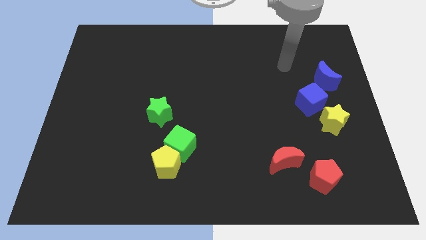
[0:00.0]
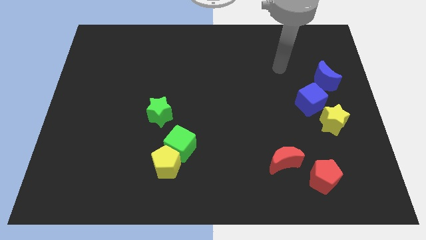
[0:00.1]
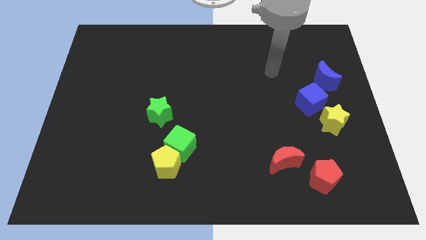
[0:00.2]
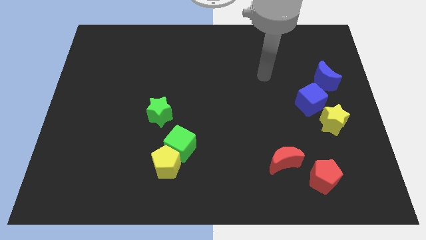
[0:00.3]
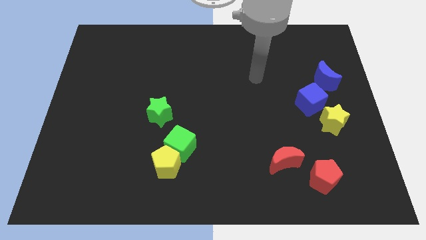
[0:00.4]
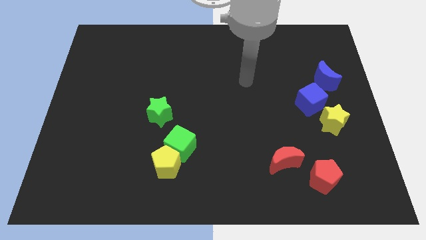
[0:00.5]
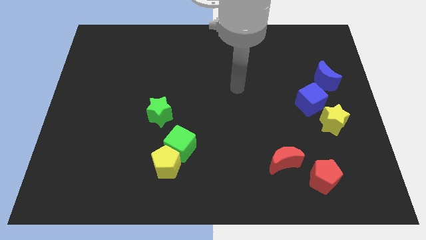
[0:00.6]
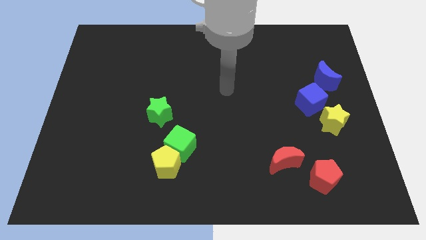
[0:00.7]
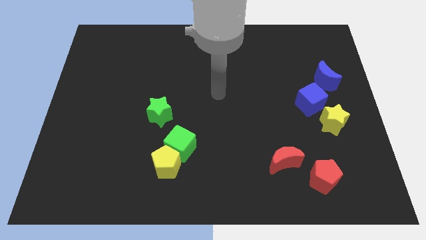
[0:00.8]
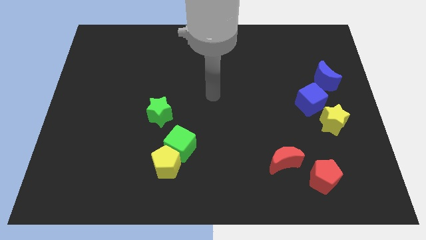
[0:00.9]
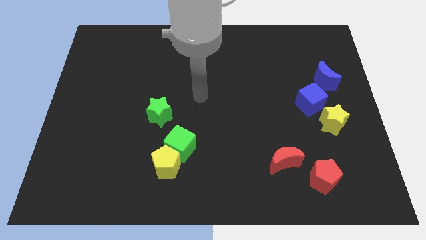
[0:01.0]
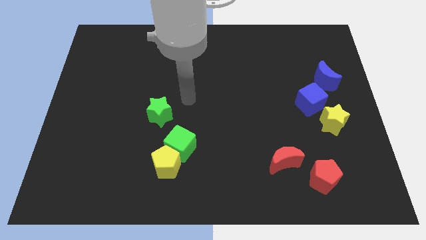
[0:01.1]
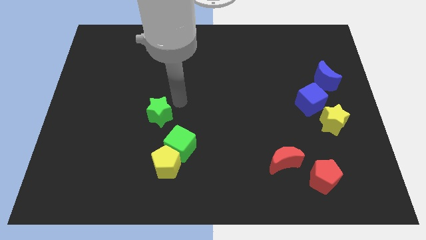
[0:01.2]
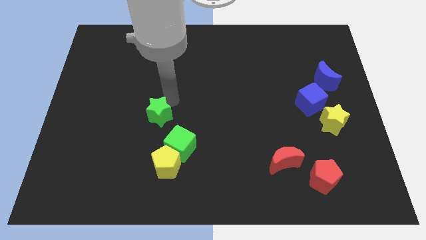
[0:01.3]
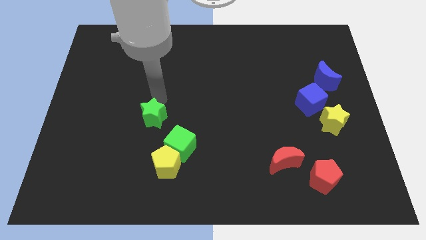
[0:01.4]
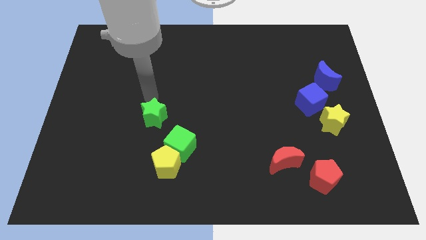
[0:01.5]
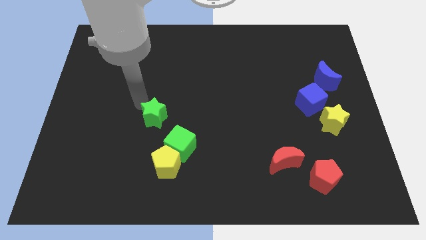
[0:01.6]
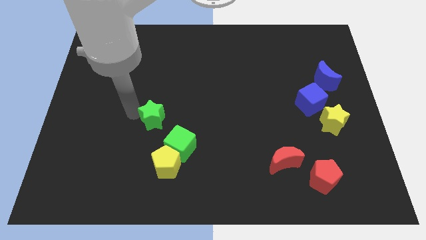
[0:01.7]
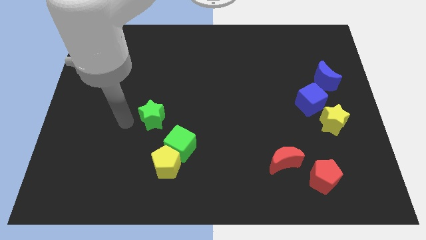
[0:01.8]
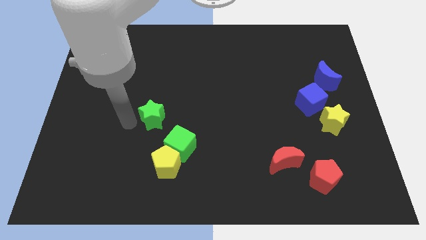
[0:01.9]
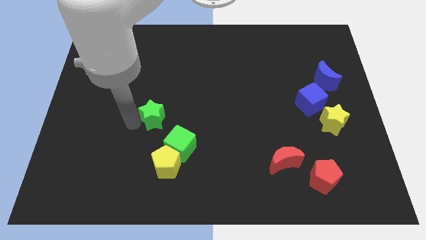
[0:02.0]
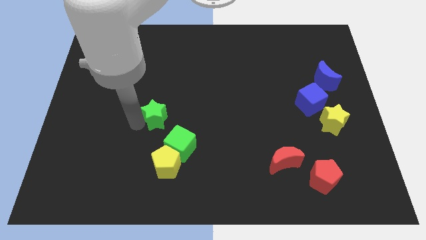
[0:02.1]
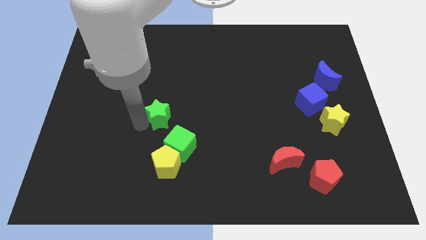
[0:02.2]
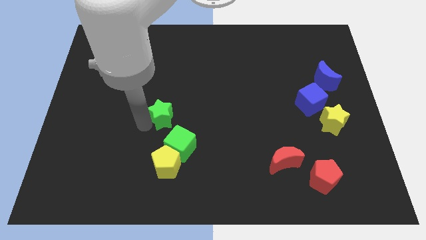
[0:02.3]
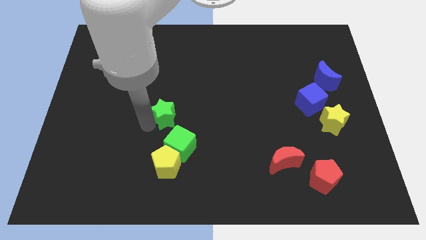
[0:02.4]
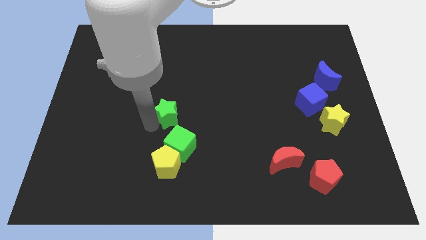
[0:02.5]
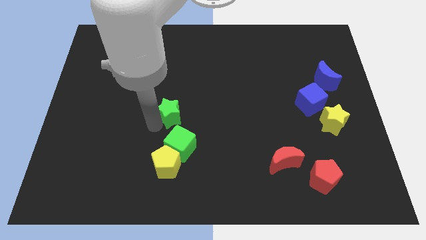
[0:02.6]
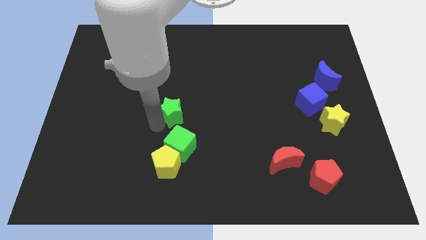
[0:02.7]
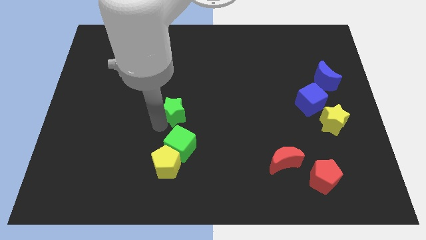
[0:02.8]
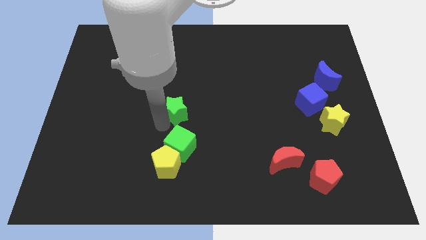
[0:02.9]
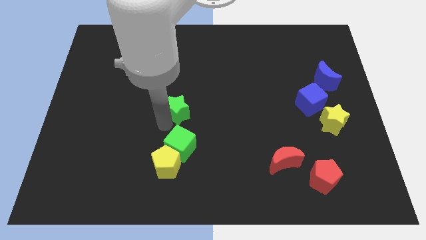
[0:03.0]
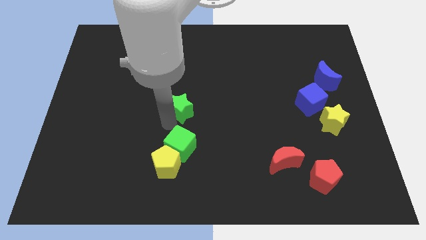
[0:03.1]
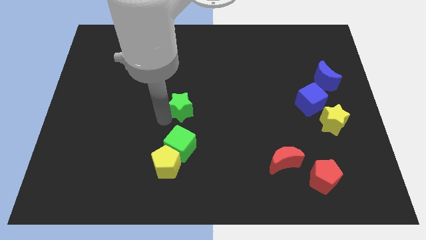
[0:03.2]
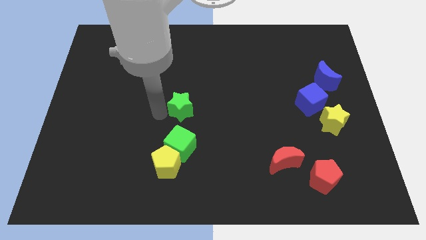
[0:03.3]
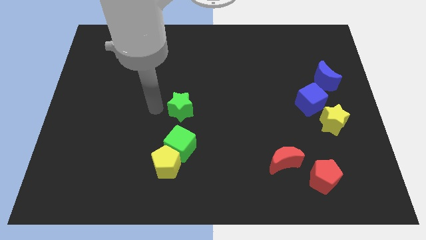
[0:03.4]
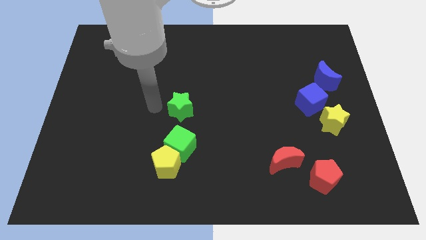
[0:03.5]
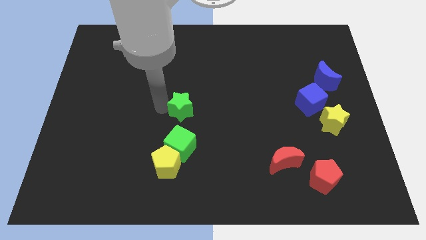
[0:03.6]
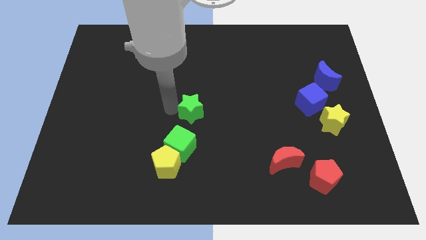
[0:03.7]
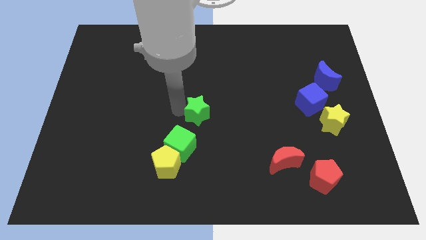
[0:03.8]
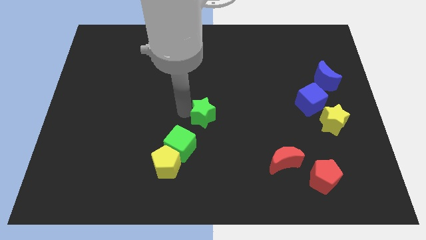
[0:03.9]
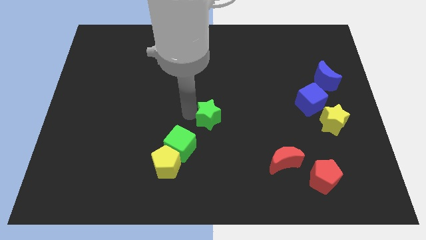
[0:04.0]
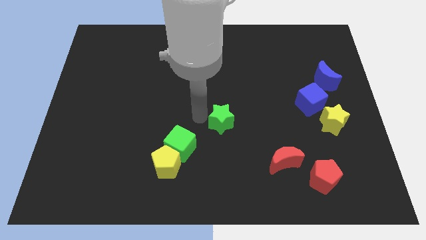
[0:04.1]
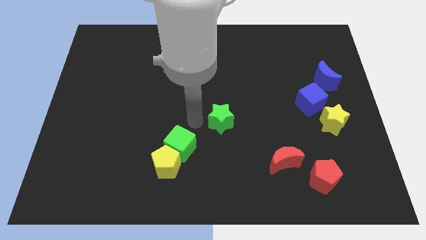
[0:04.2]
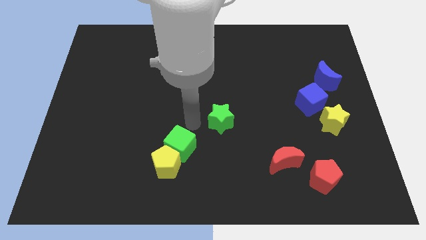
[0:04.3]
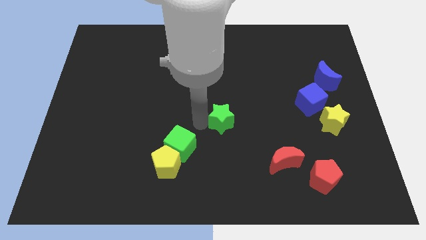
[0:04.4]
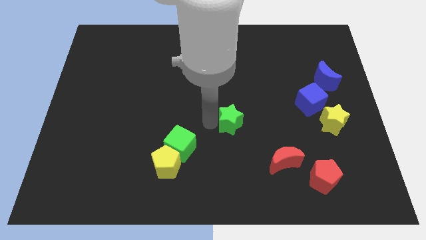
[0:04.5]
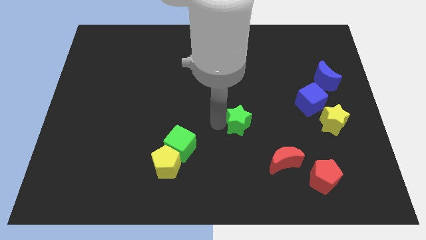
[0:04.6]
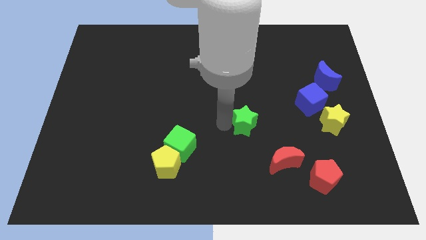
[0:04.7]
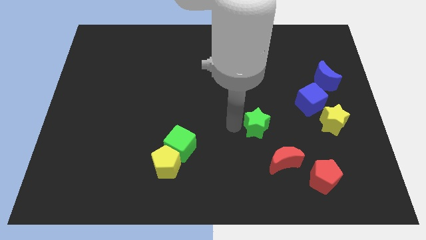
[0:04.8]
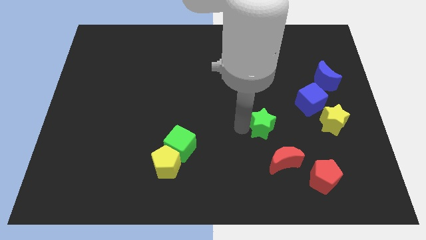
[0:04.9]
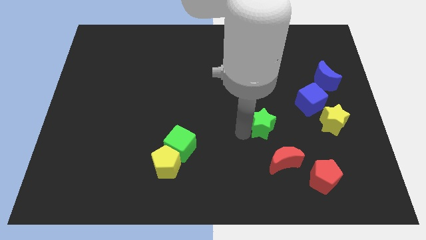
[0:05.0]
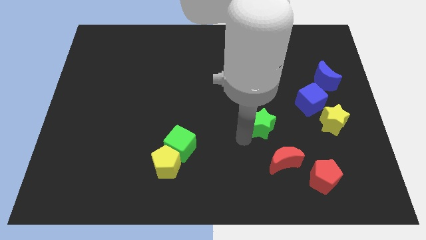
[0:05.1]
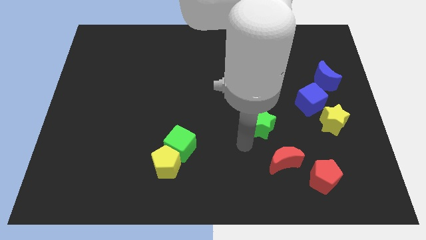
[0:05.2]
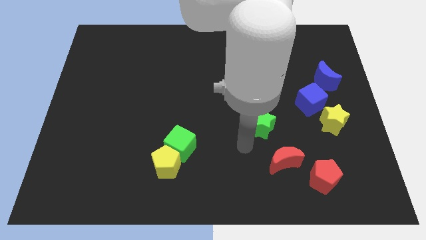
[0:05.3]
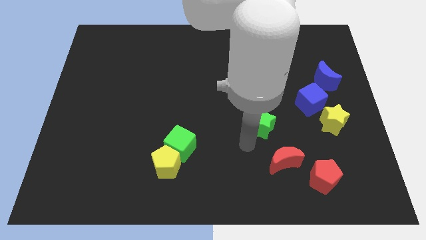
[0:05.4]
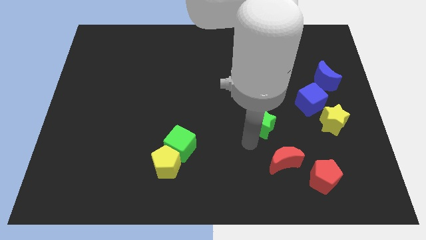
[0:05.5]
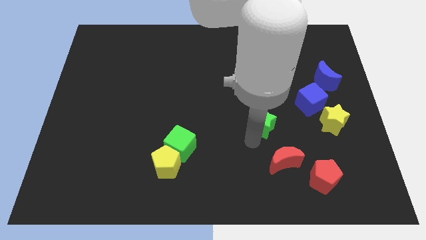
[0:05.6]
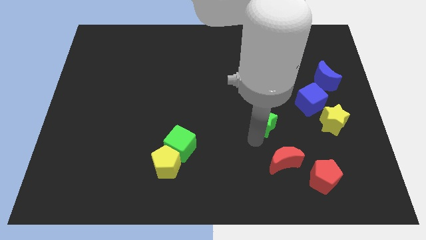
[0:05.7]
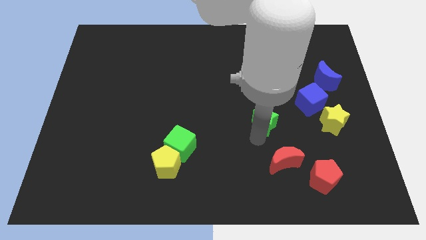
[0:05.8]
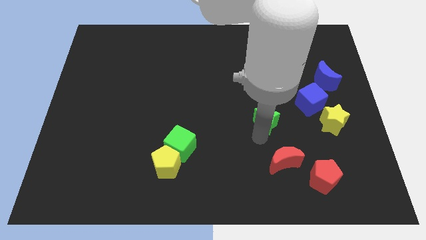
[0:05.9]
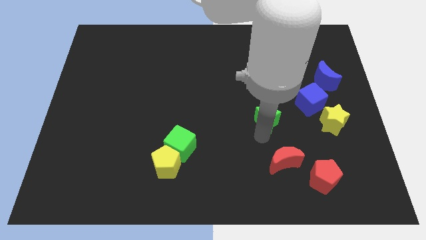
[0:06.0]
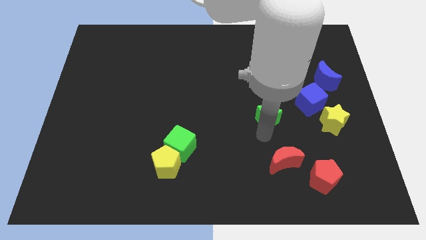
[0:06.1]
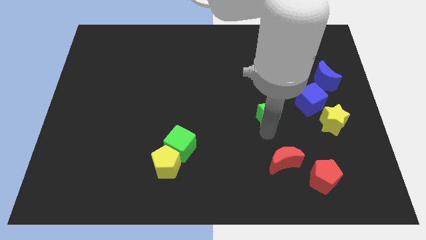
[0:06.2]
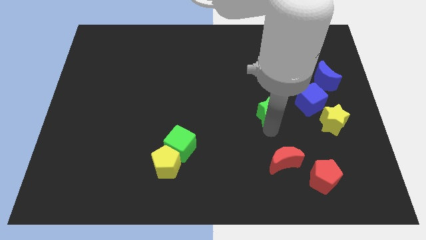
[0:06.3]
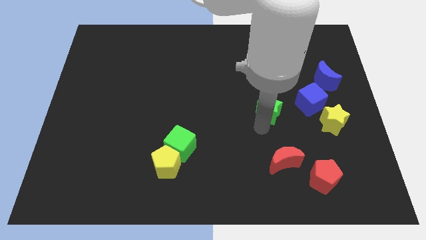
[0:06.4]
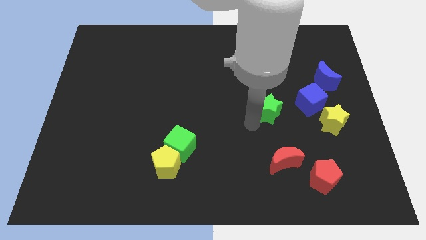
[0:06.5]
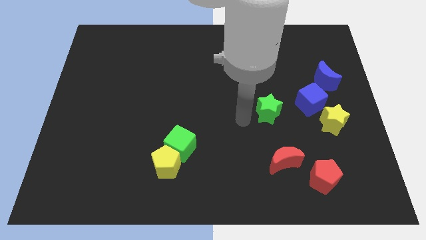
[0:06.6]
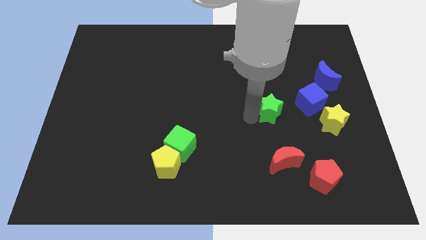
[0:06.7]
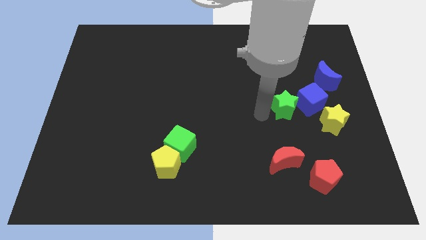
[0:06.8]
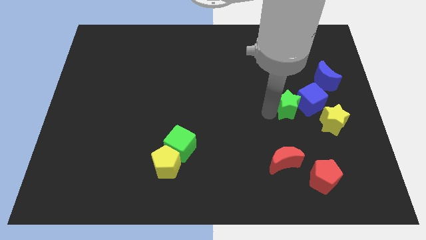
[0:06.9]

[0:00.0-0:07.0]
put the green star close to the blue cube
